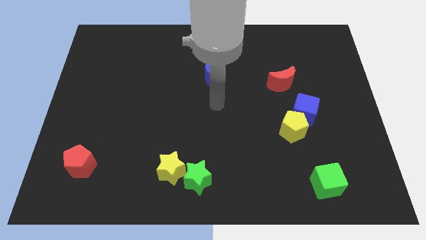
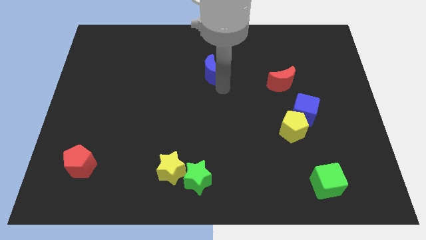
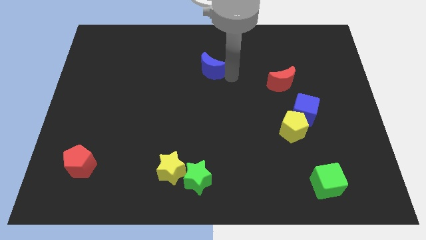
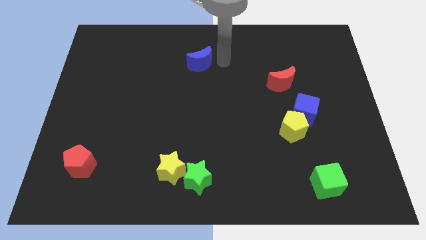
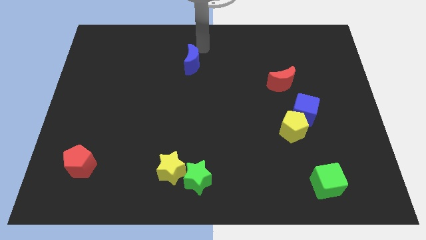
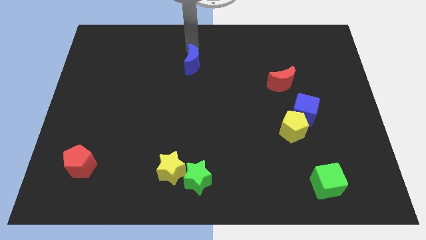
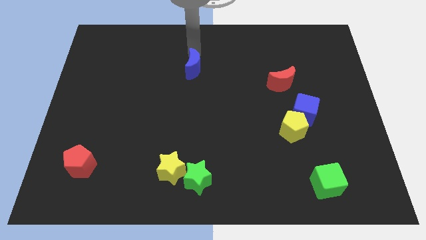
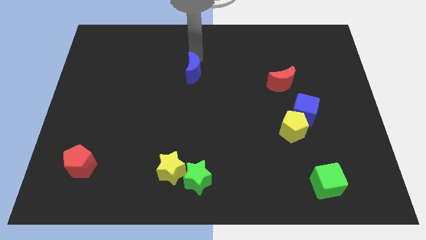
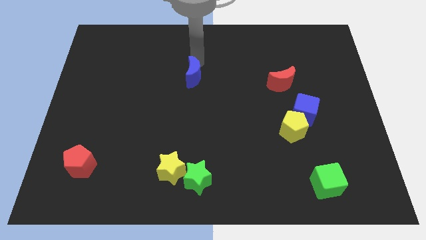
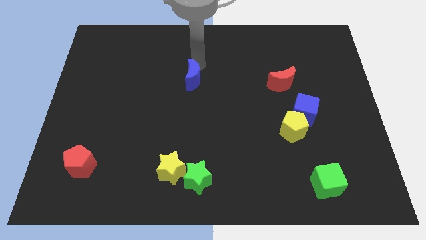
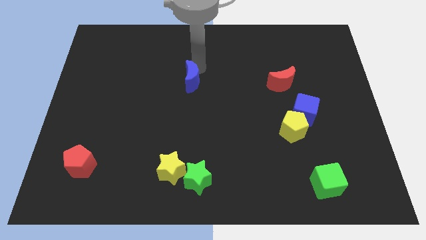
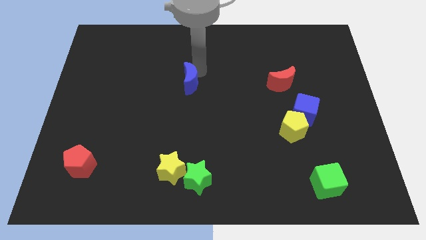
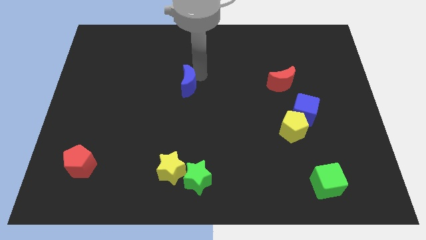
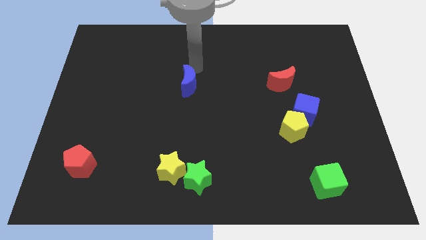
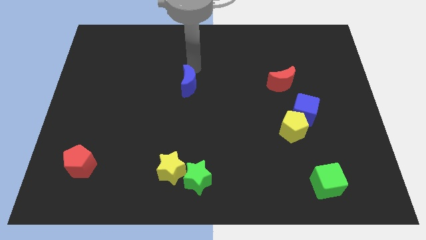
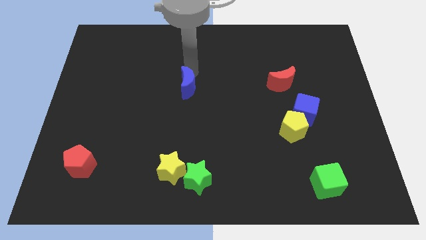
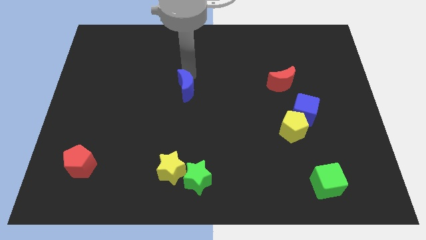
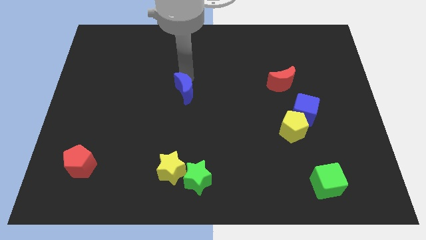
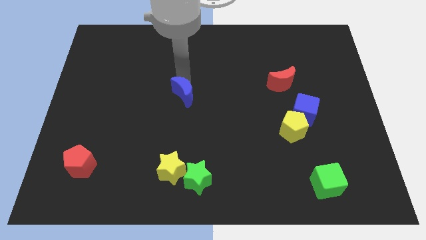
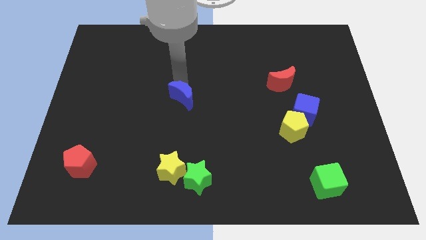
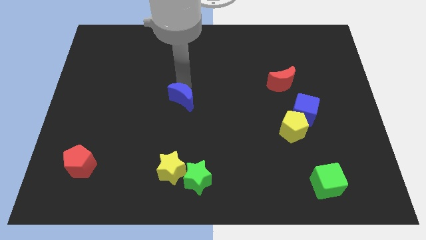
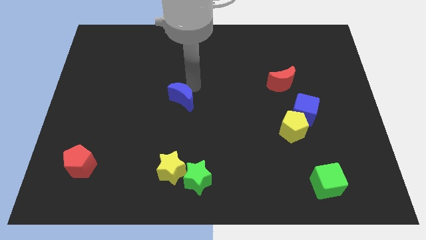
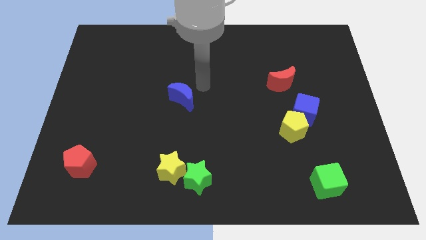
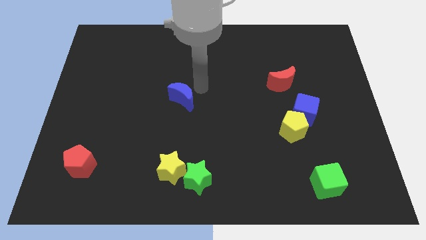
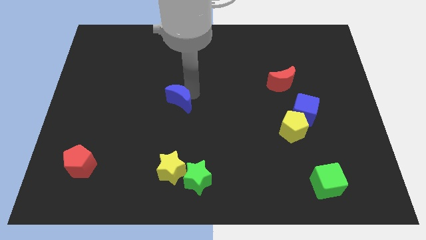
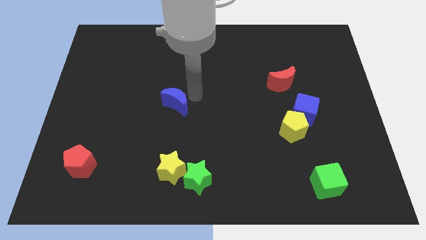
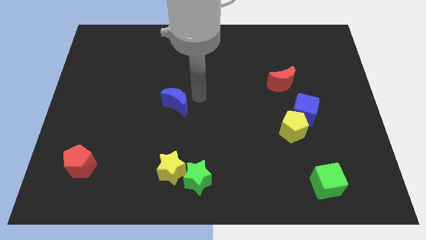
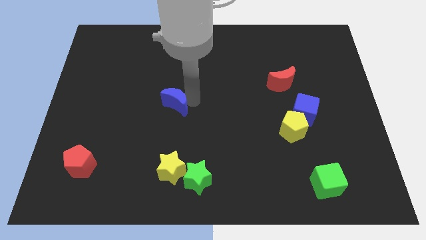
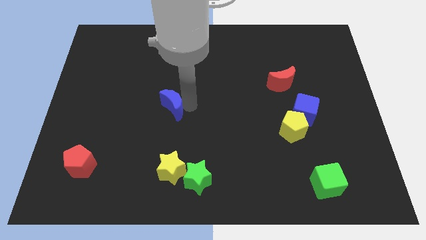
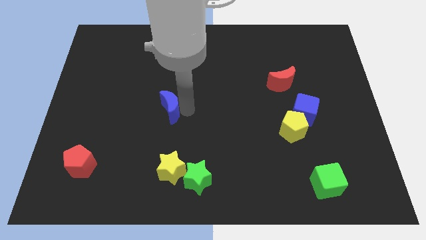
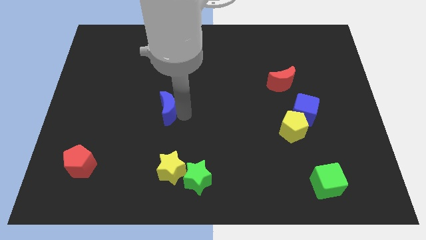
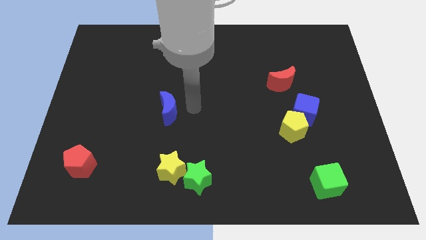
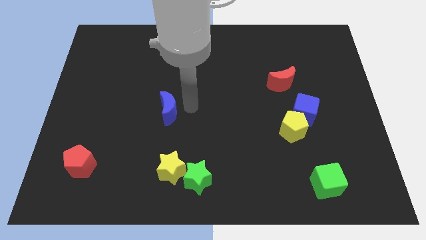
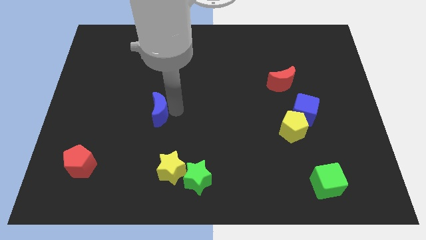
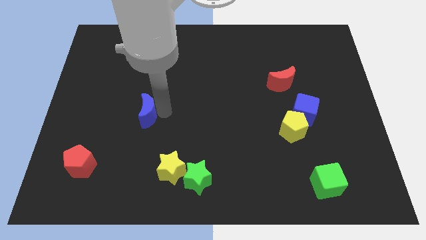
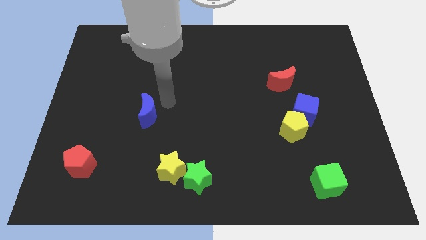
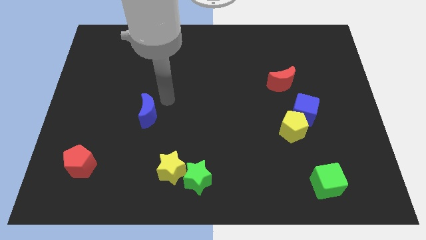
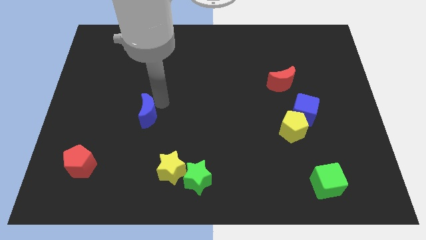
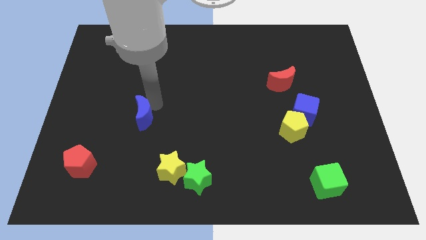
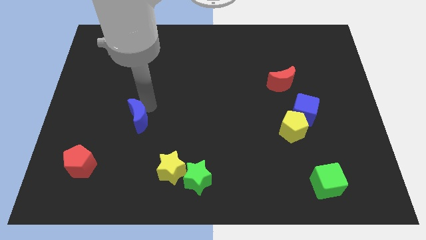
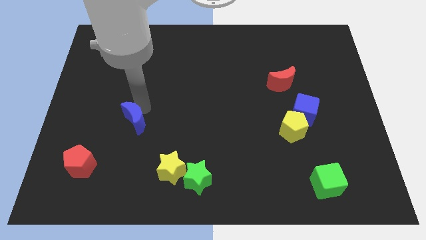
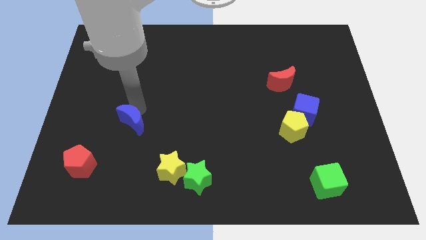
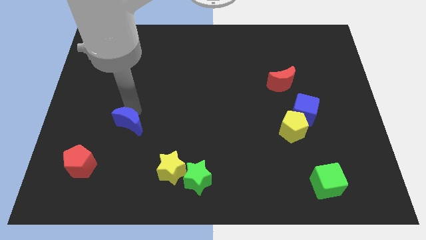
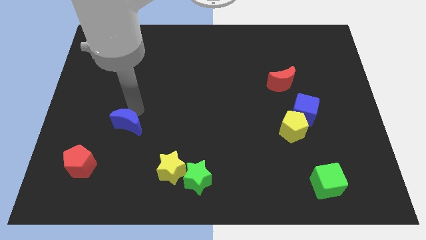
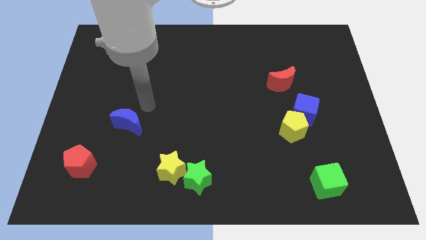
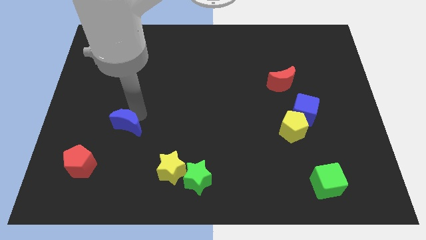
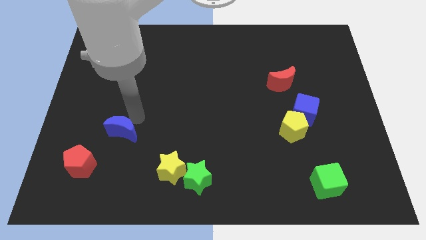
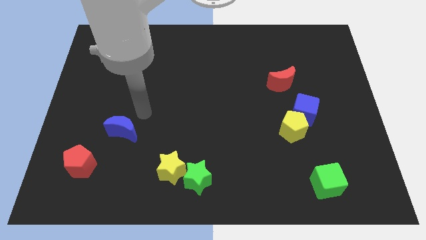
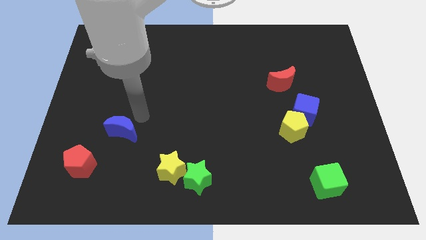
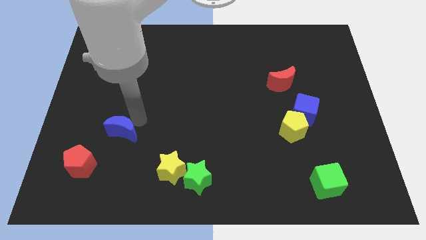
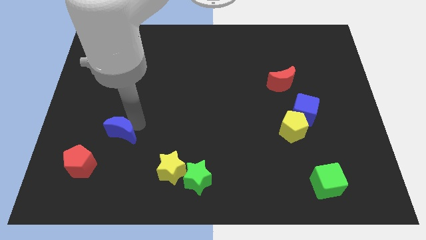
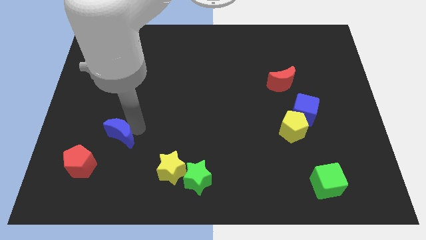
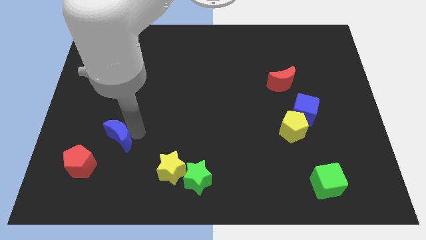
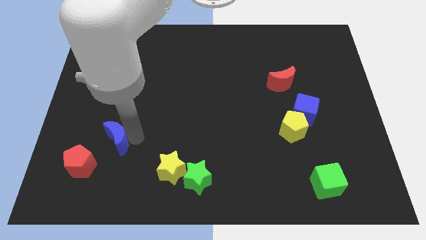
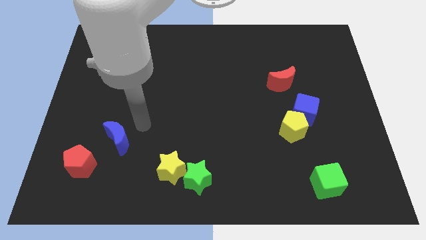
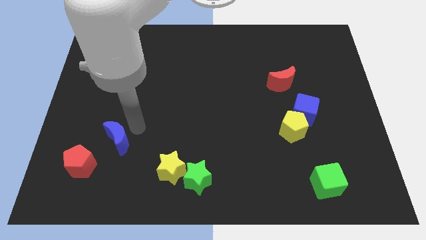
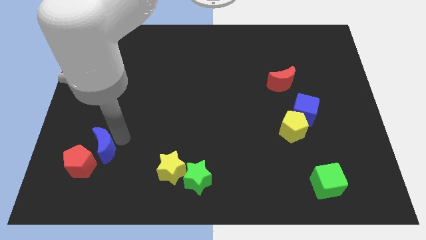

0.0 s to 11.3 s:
move the blue moon close to the red pentagon

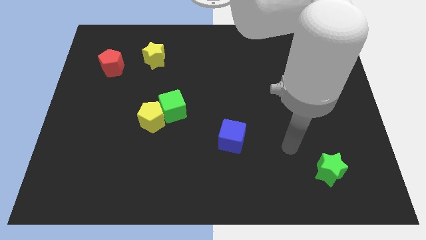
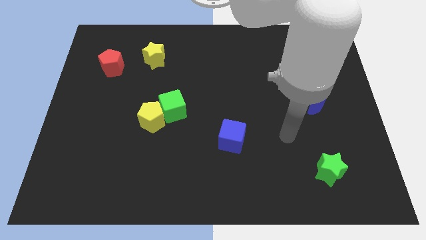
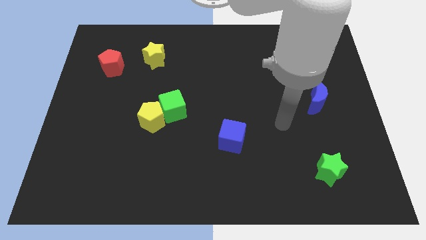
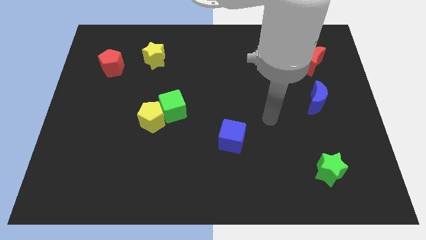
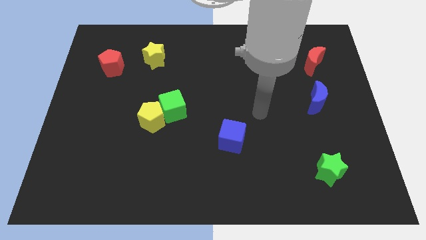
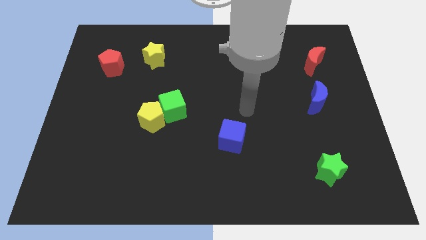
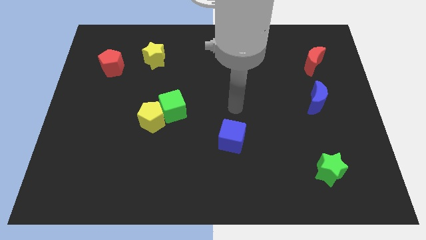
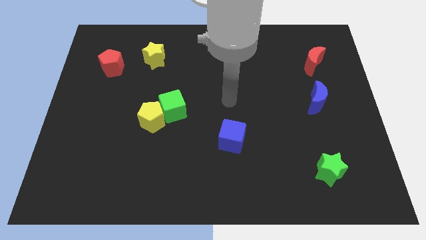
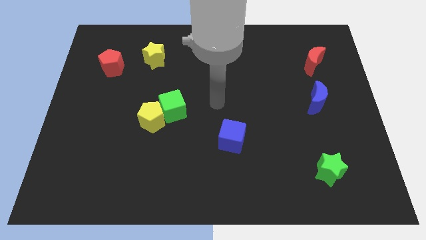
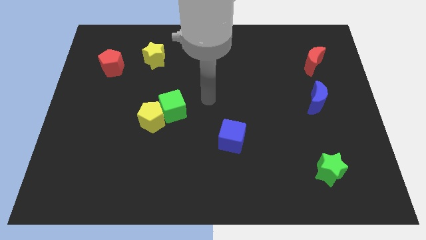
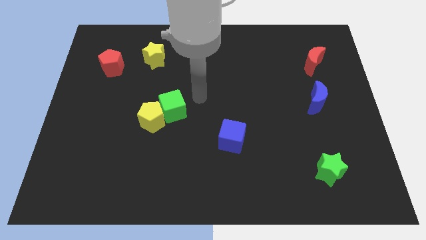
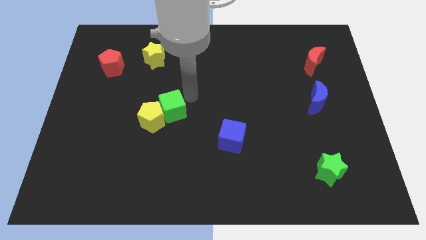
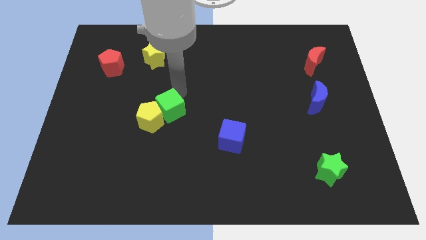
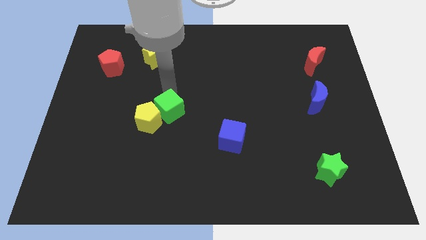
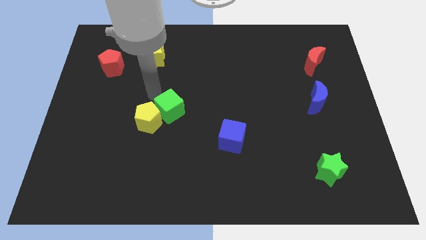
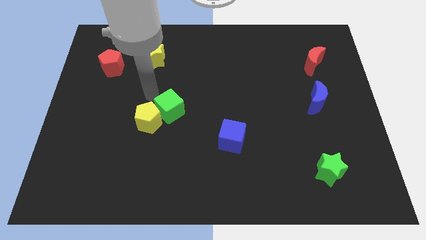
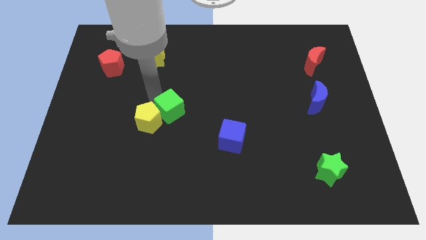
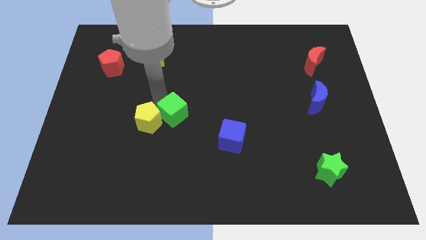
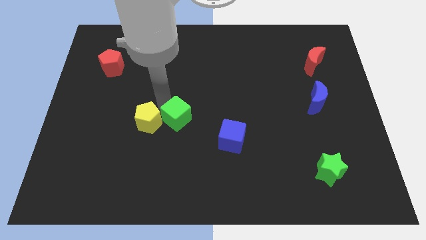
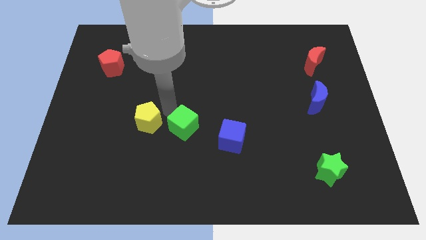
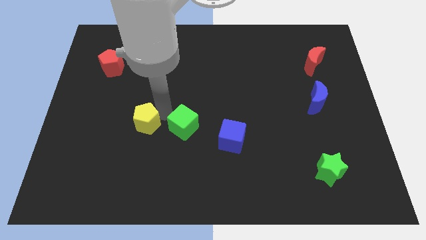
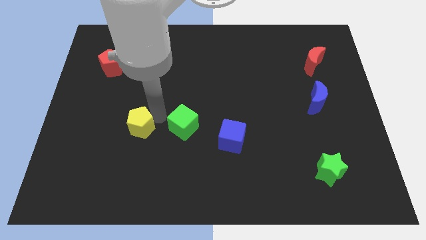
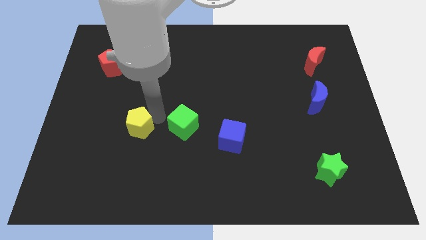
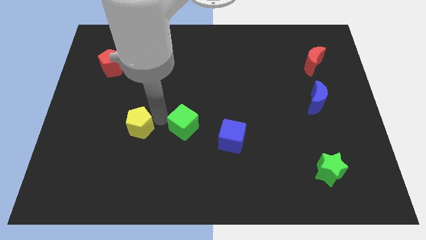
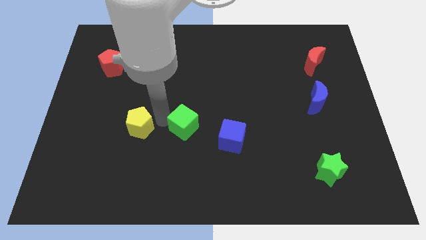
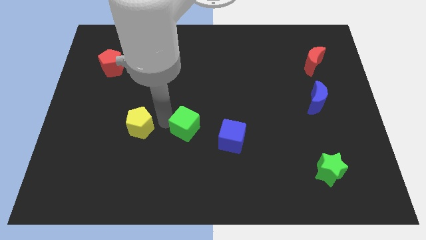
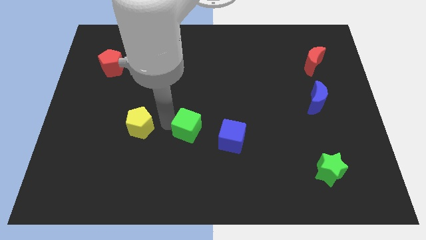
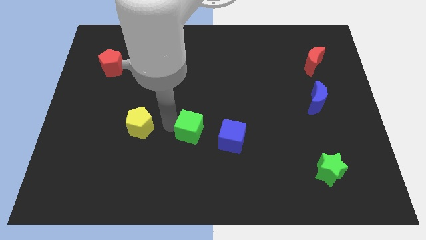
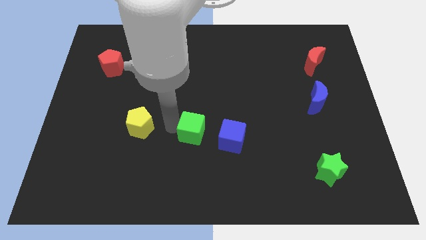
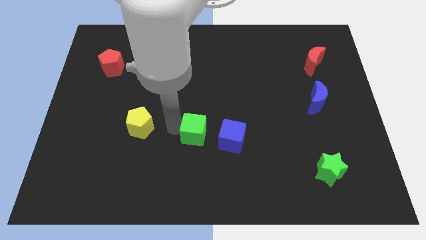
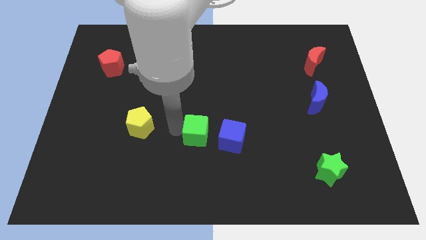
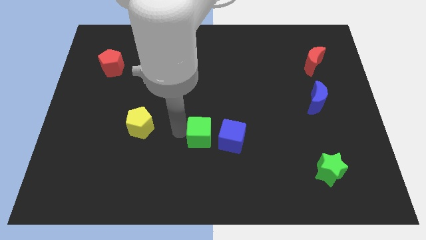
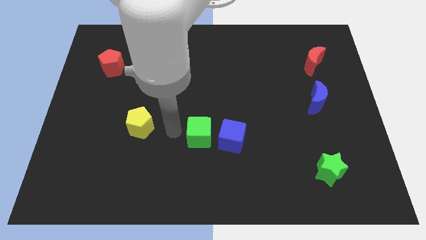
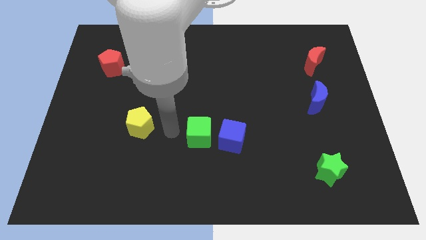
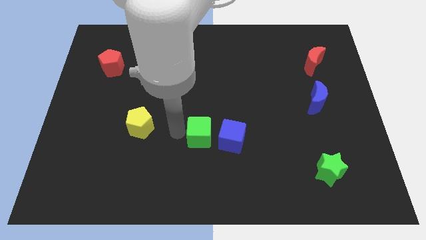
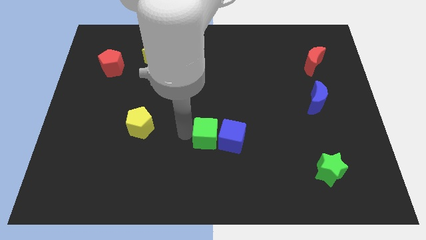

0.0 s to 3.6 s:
slide the green cube to the blue cube
